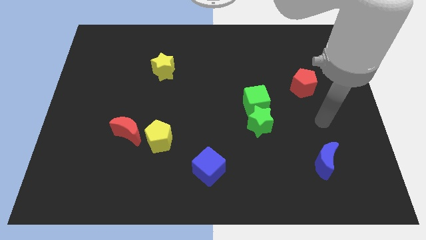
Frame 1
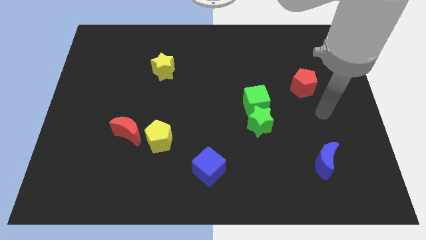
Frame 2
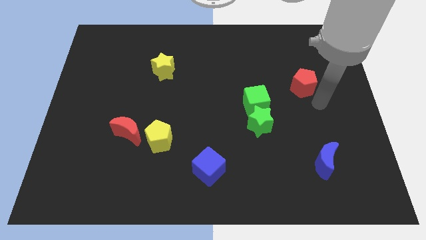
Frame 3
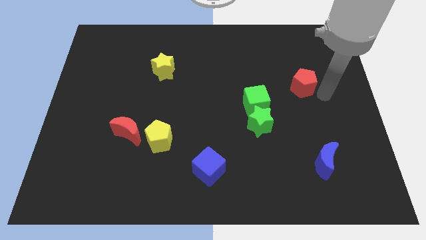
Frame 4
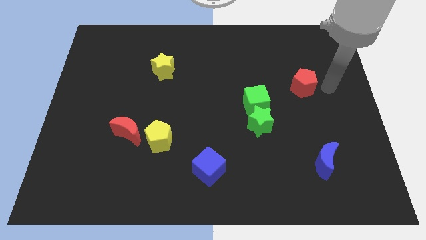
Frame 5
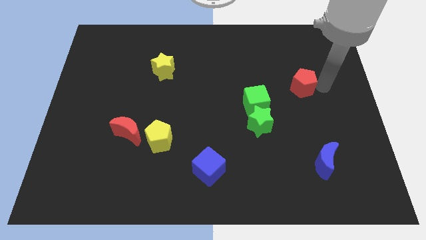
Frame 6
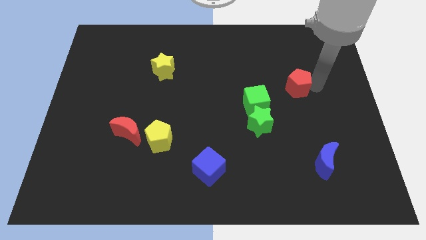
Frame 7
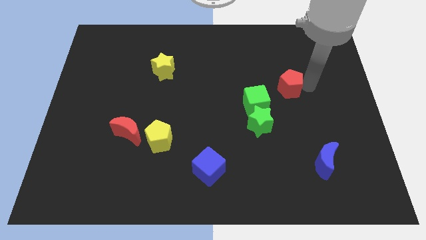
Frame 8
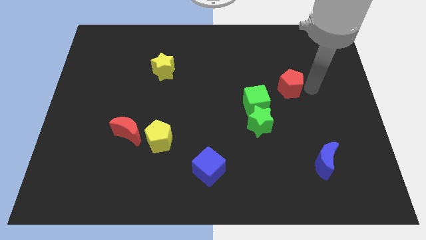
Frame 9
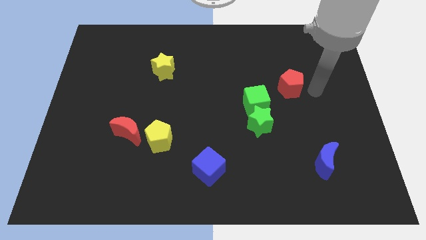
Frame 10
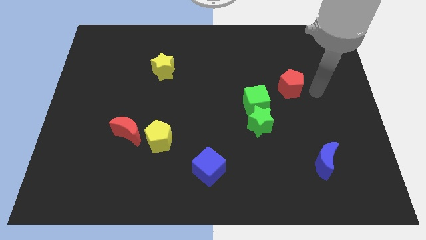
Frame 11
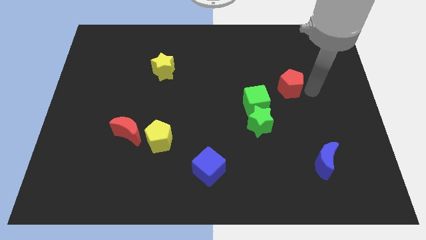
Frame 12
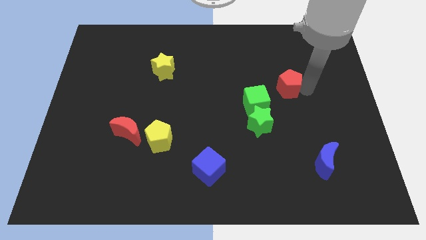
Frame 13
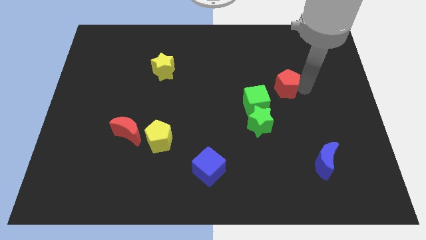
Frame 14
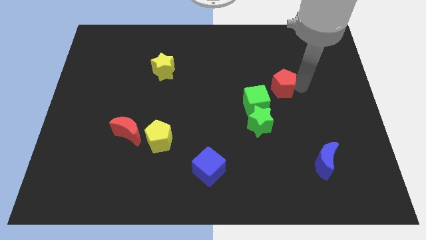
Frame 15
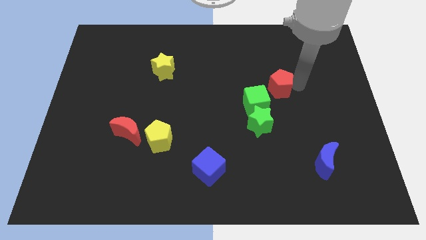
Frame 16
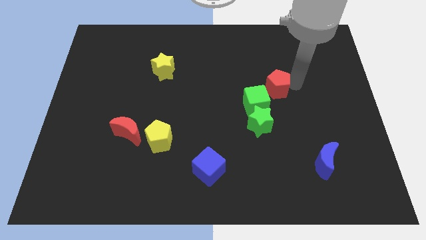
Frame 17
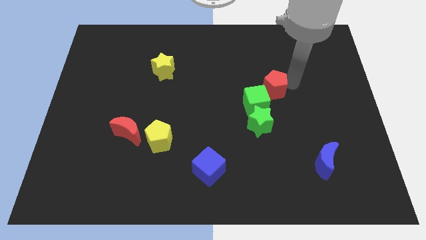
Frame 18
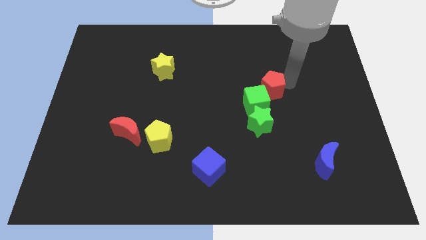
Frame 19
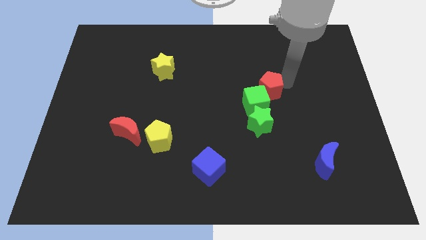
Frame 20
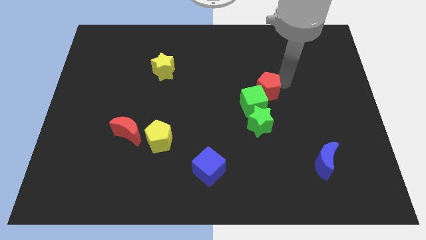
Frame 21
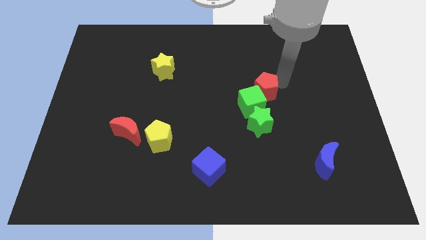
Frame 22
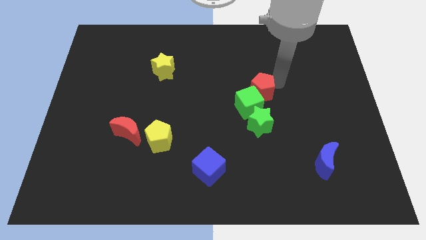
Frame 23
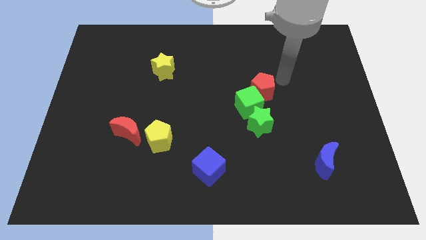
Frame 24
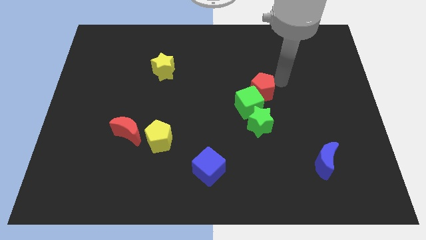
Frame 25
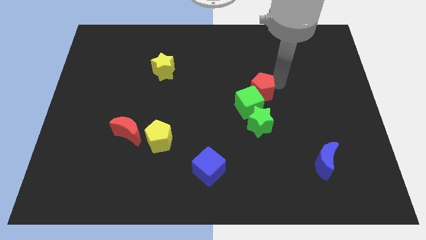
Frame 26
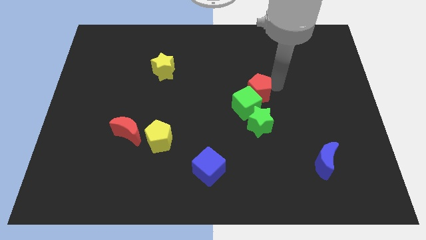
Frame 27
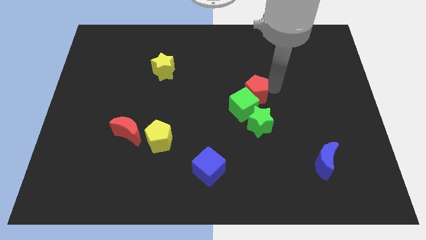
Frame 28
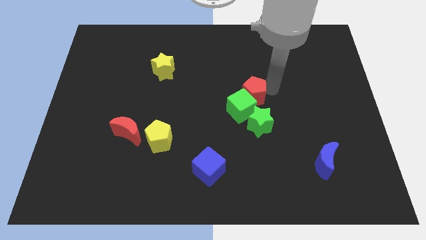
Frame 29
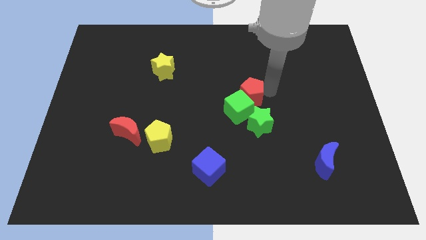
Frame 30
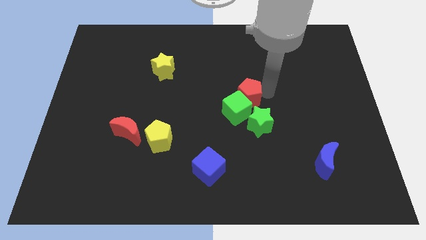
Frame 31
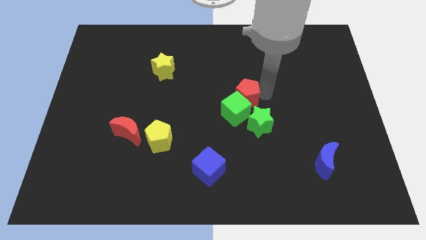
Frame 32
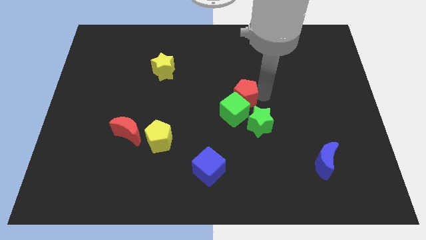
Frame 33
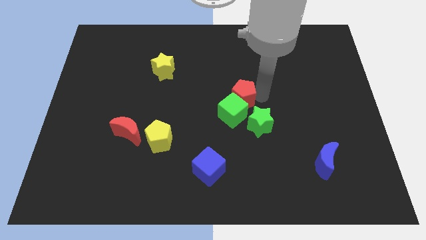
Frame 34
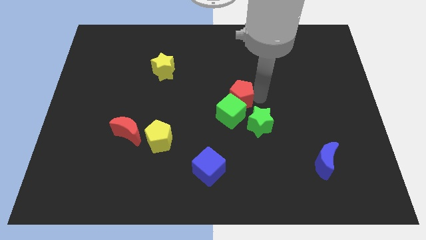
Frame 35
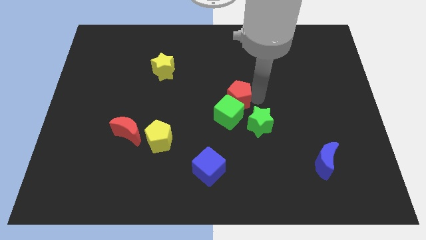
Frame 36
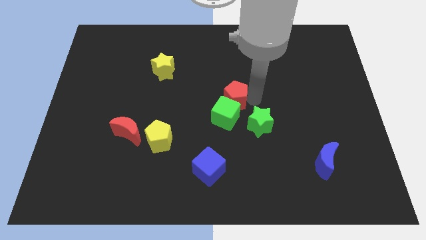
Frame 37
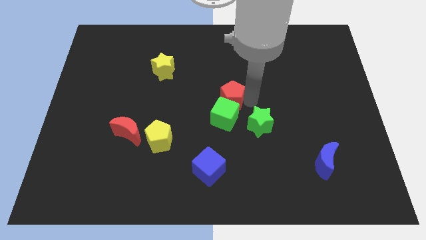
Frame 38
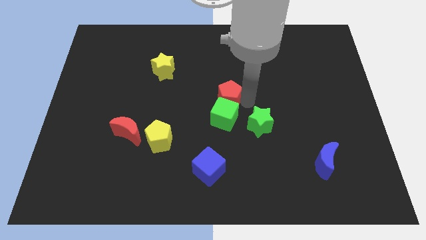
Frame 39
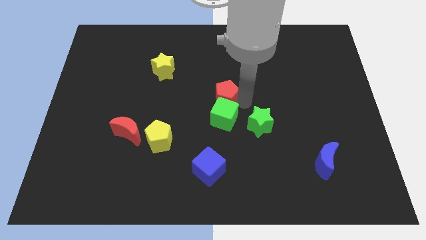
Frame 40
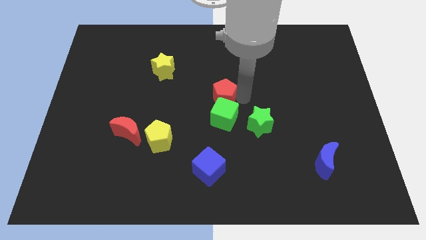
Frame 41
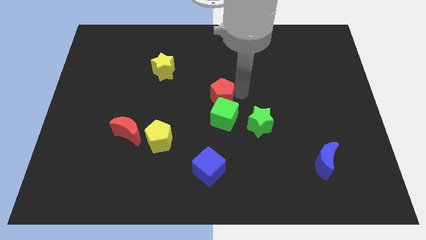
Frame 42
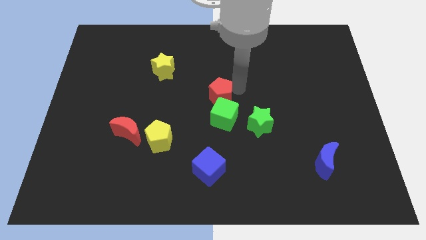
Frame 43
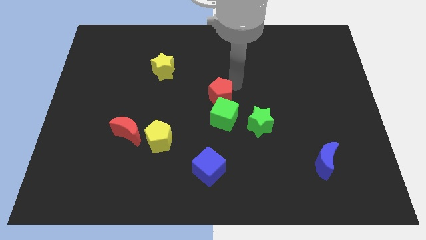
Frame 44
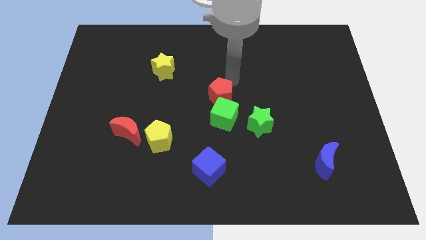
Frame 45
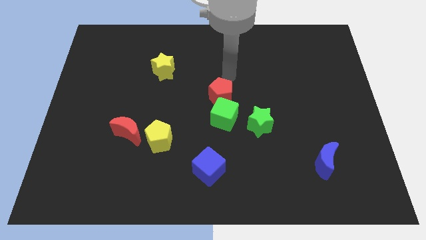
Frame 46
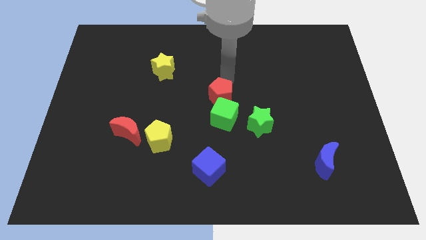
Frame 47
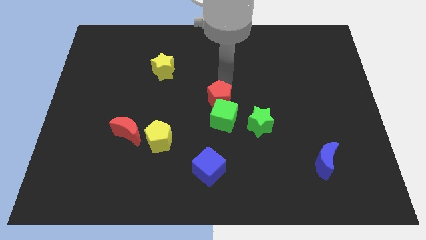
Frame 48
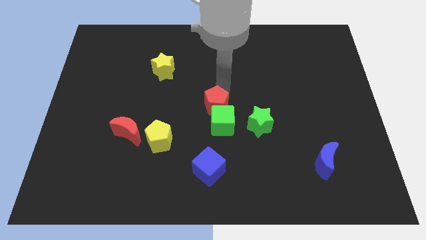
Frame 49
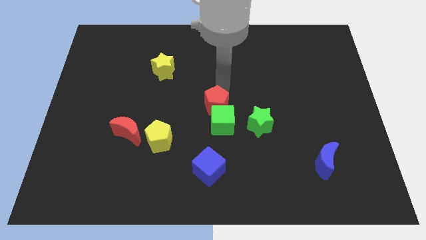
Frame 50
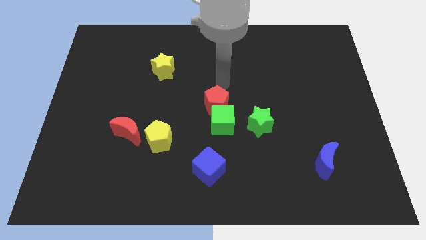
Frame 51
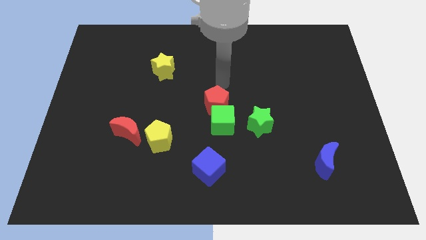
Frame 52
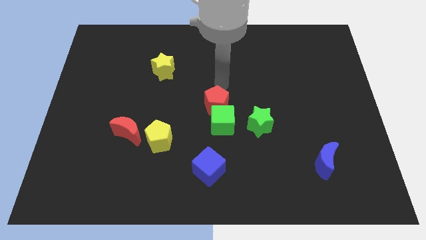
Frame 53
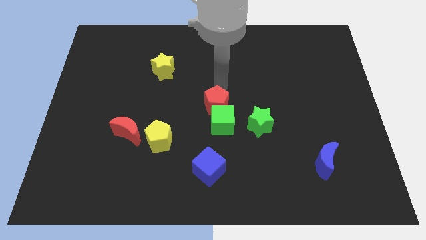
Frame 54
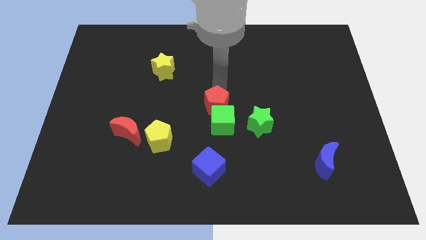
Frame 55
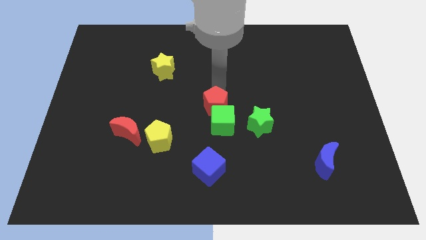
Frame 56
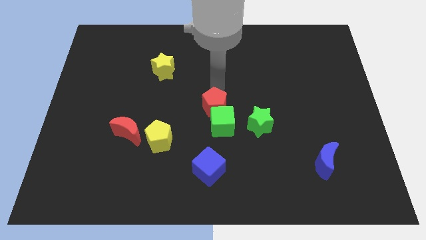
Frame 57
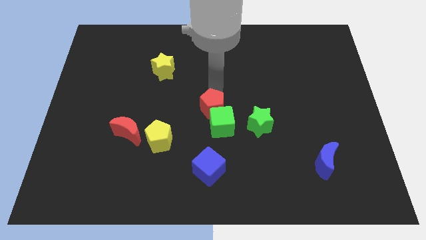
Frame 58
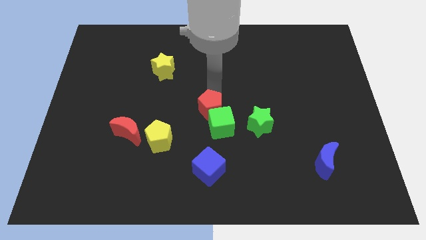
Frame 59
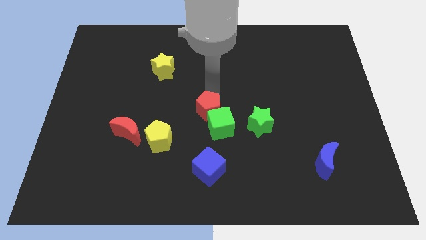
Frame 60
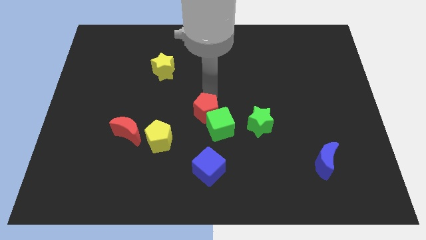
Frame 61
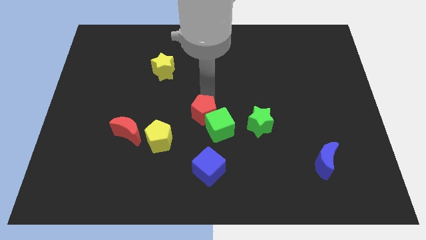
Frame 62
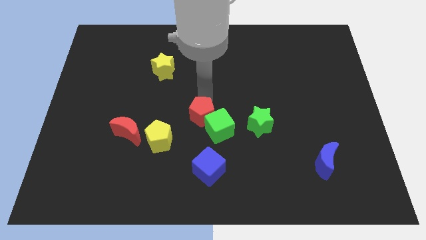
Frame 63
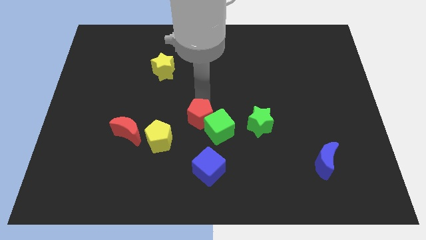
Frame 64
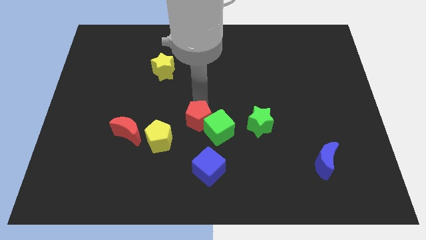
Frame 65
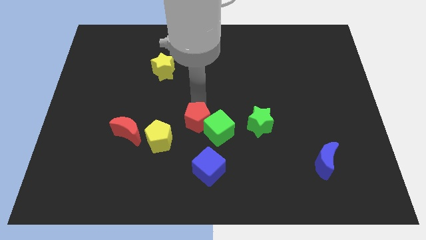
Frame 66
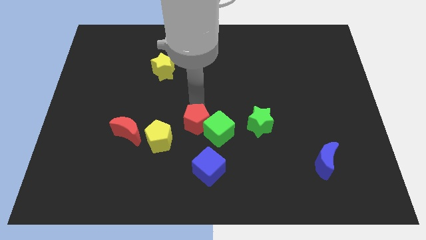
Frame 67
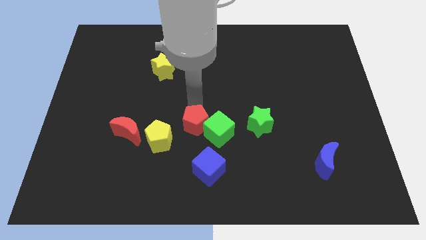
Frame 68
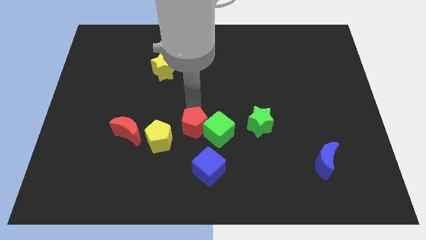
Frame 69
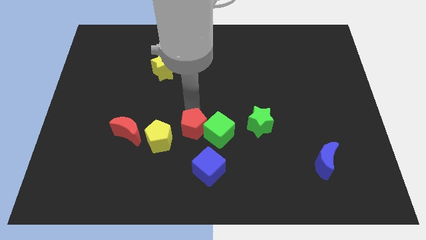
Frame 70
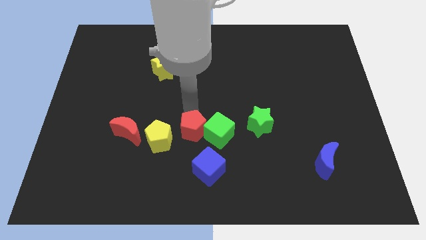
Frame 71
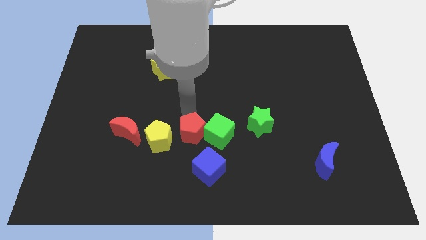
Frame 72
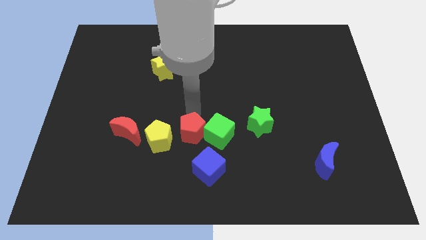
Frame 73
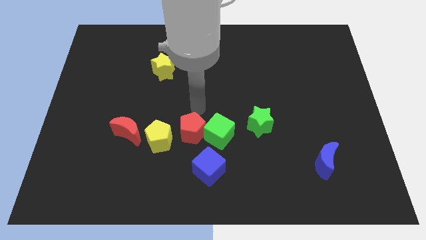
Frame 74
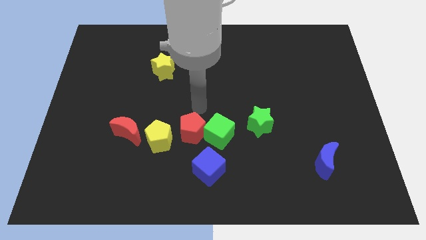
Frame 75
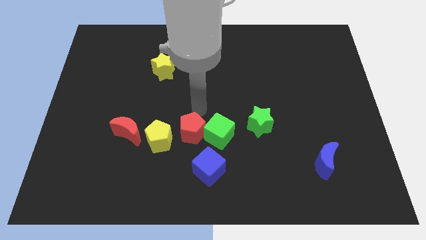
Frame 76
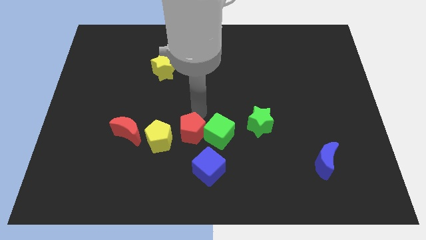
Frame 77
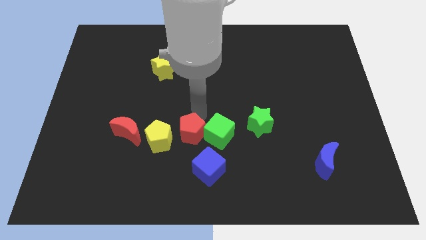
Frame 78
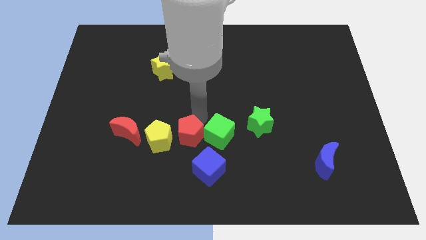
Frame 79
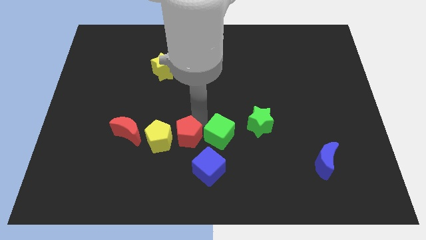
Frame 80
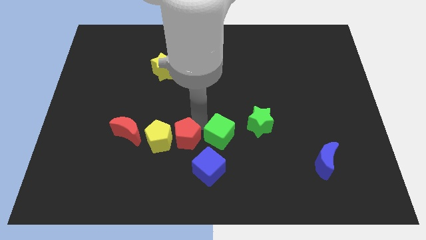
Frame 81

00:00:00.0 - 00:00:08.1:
move the red pentagon diagonally down and to the right of the yellow pentagon
